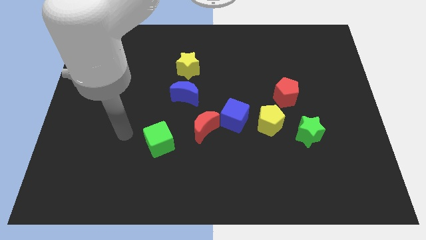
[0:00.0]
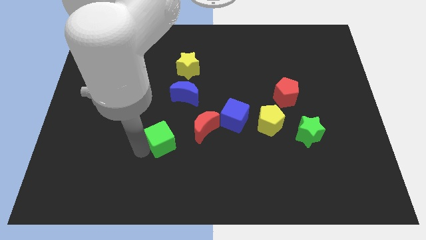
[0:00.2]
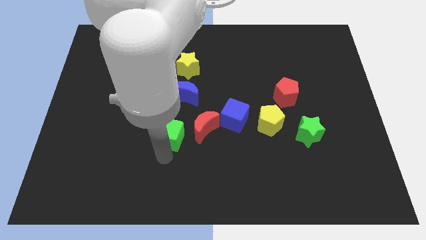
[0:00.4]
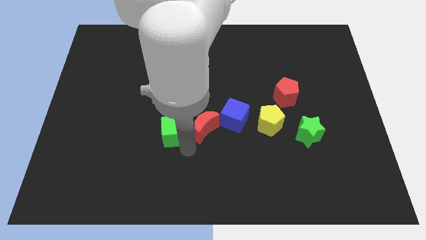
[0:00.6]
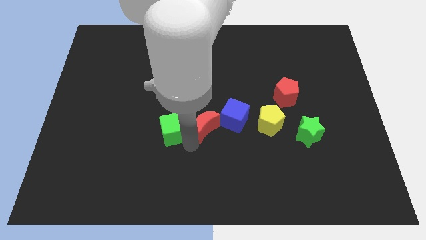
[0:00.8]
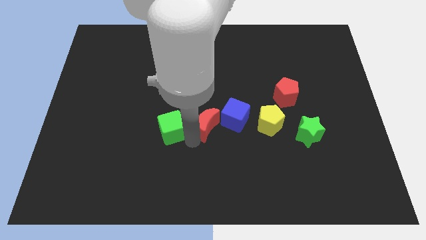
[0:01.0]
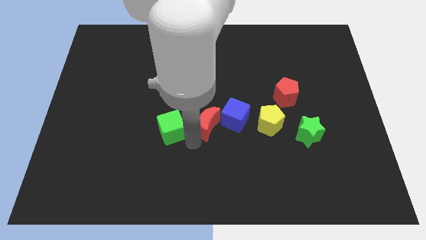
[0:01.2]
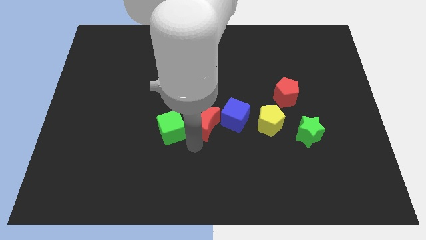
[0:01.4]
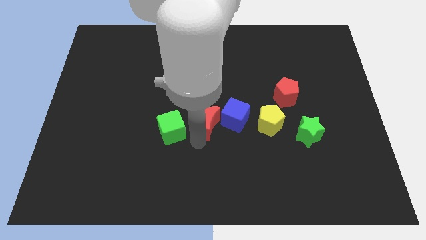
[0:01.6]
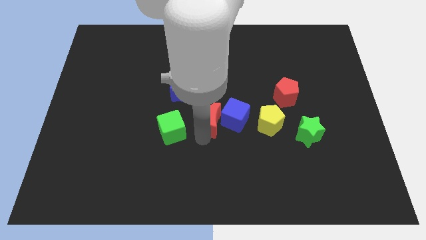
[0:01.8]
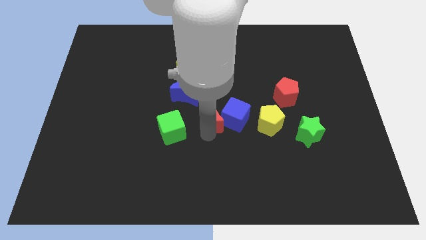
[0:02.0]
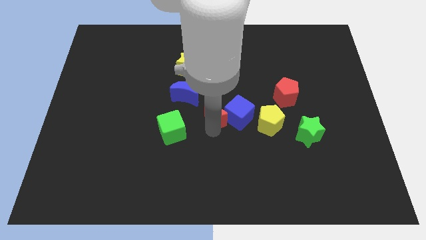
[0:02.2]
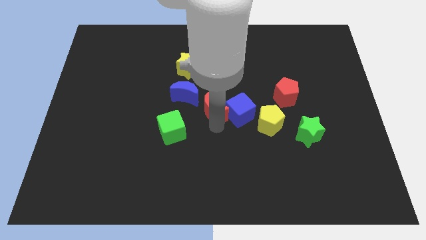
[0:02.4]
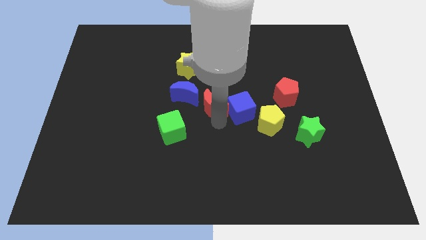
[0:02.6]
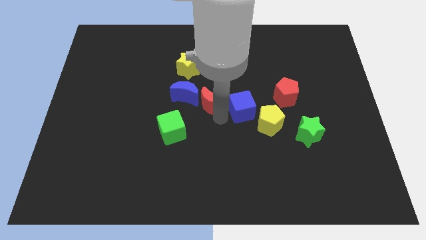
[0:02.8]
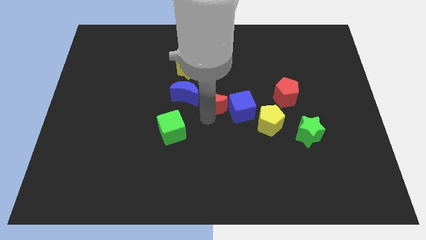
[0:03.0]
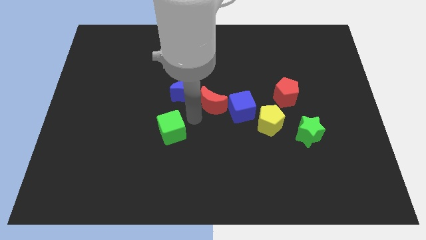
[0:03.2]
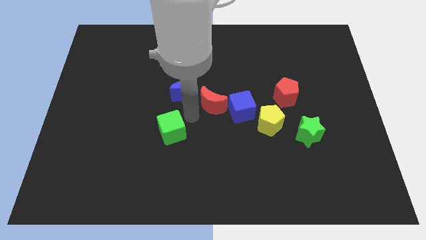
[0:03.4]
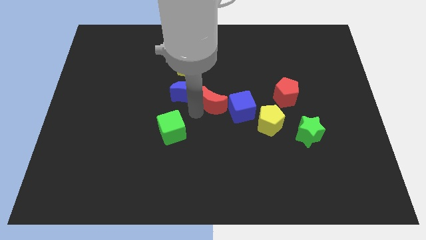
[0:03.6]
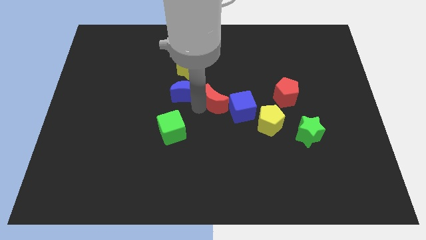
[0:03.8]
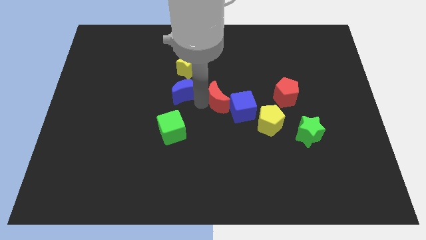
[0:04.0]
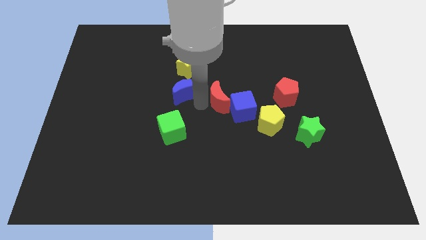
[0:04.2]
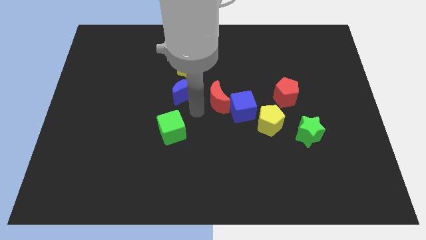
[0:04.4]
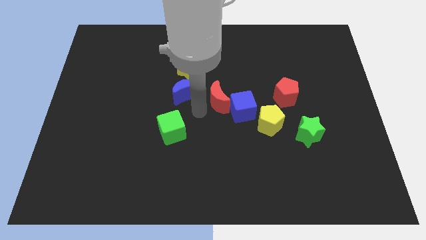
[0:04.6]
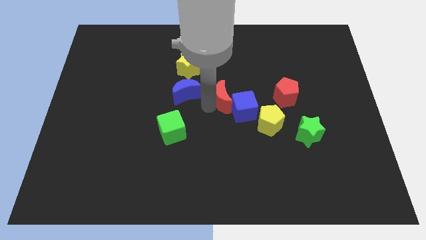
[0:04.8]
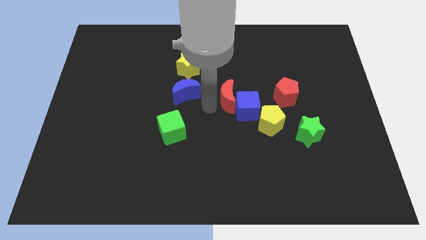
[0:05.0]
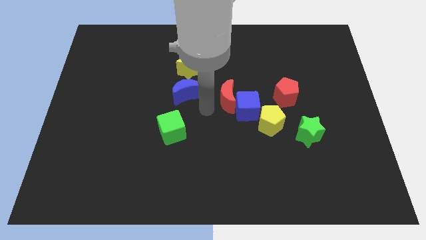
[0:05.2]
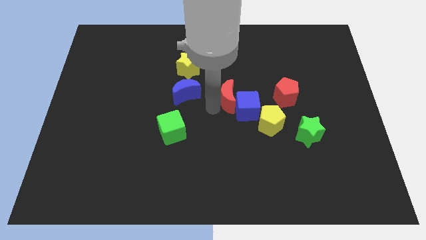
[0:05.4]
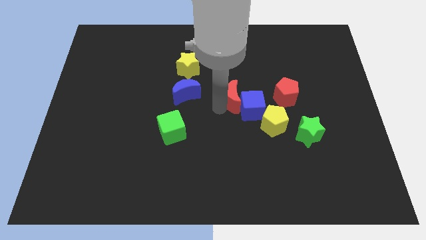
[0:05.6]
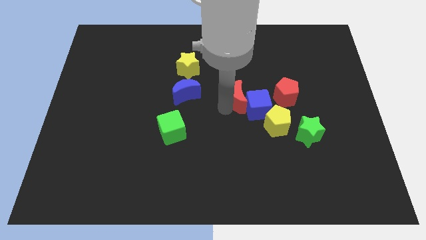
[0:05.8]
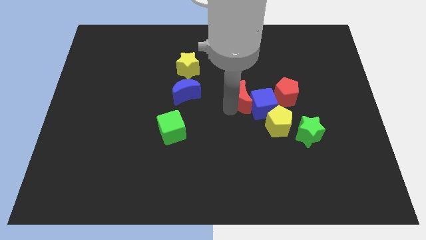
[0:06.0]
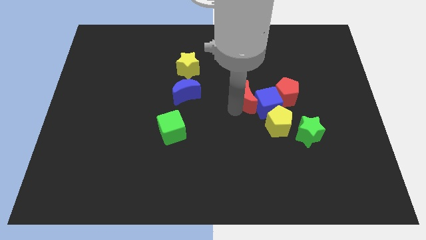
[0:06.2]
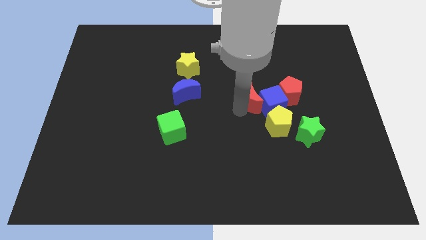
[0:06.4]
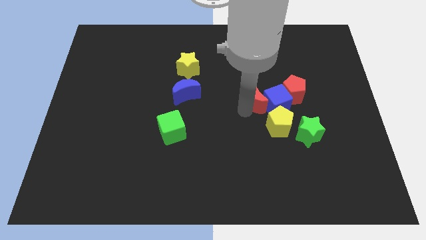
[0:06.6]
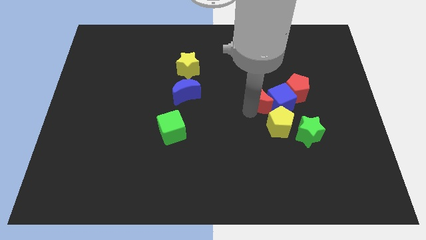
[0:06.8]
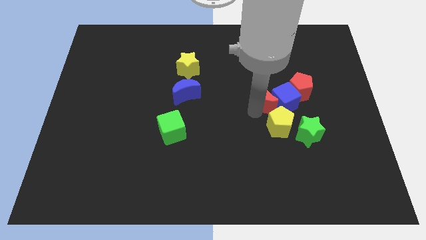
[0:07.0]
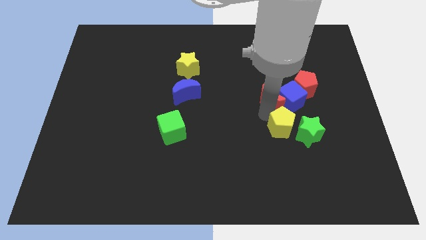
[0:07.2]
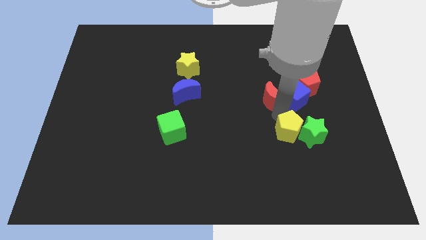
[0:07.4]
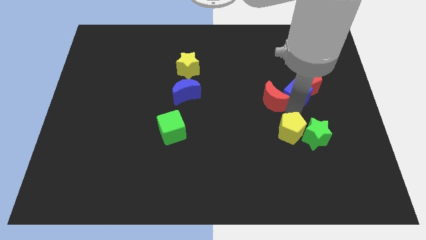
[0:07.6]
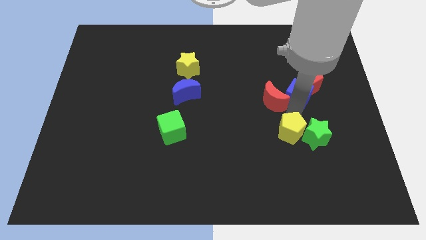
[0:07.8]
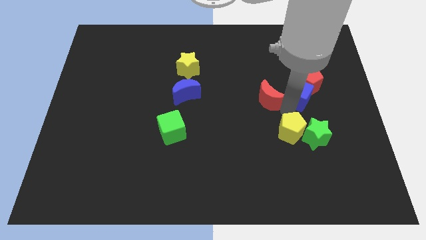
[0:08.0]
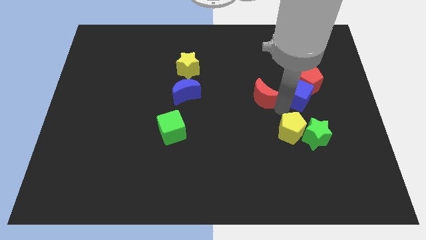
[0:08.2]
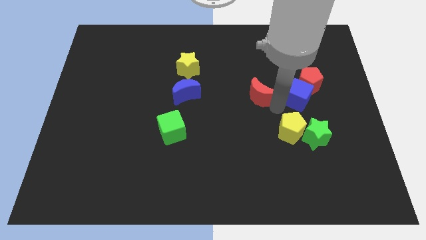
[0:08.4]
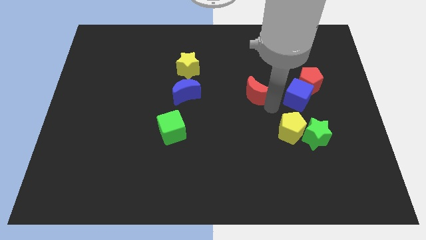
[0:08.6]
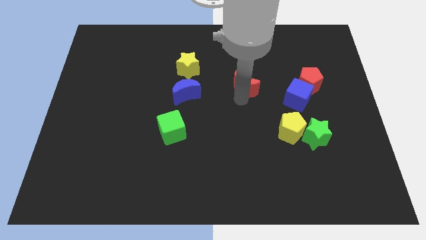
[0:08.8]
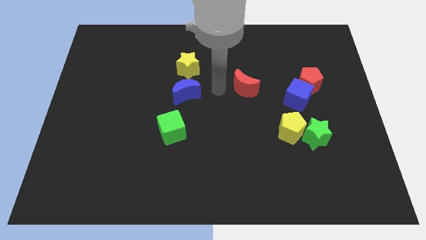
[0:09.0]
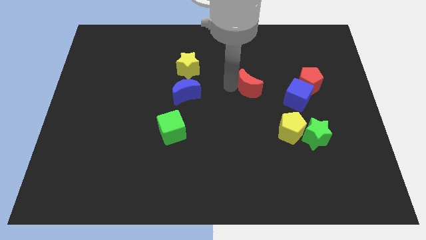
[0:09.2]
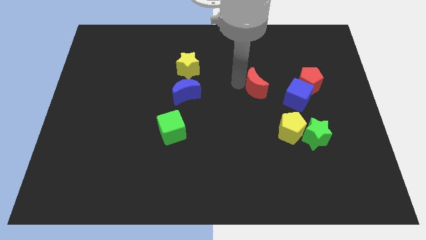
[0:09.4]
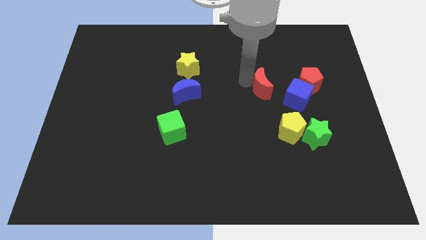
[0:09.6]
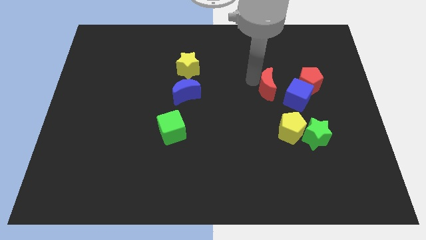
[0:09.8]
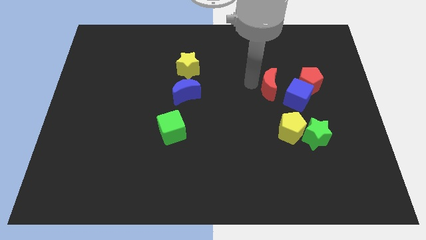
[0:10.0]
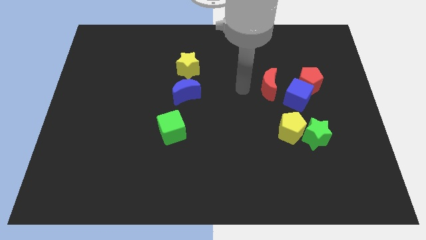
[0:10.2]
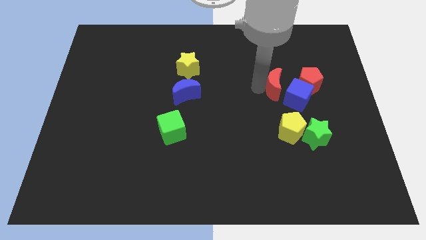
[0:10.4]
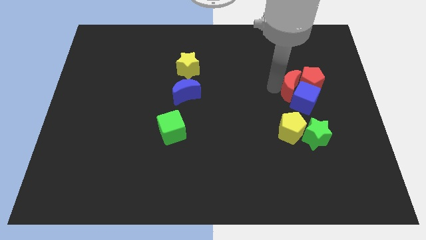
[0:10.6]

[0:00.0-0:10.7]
move the red moon to the red pentagon

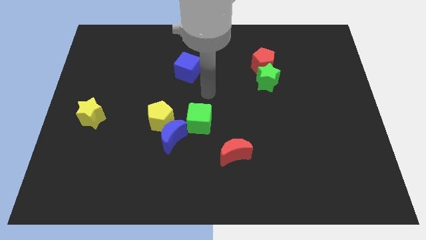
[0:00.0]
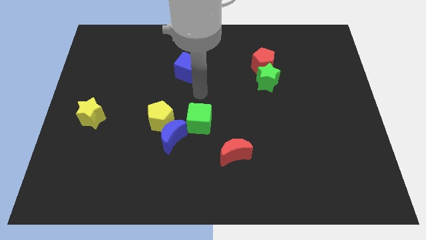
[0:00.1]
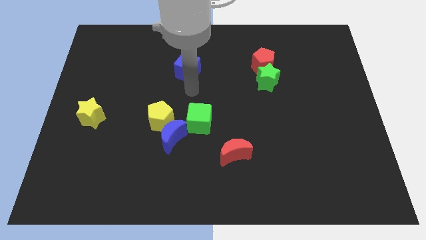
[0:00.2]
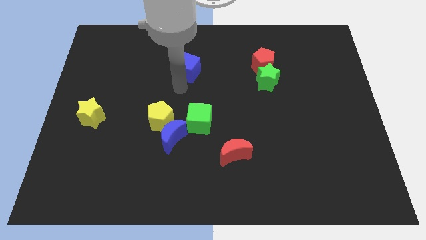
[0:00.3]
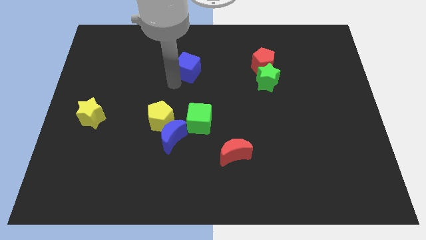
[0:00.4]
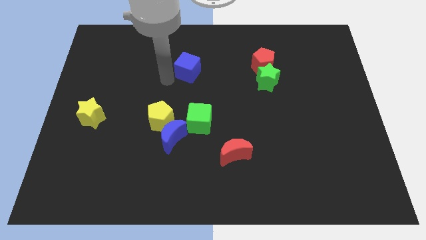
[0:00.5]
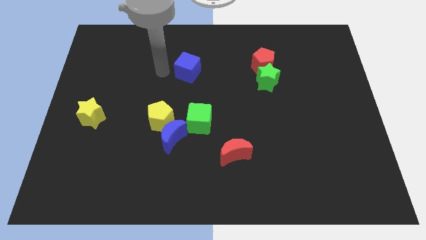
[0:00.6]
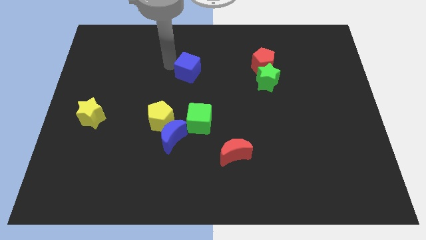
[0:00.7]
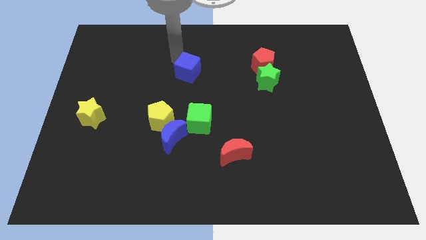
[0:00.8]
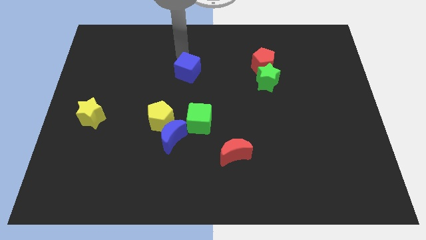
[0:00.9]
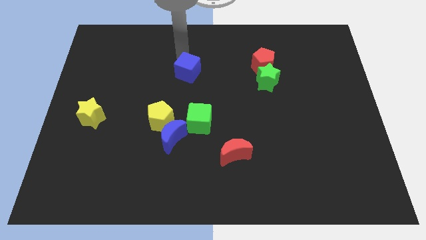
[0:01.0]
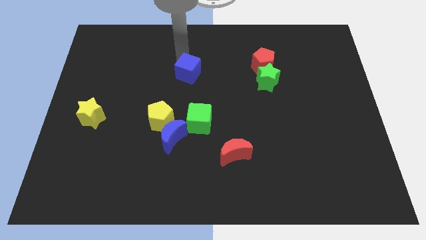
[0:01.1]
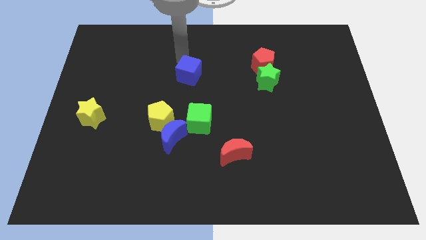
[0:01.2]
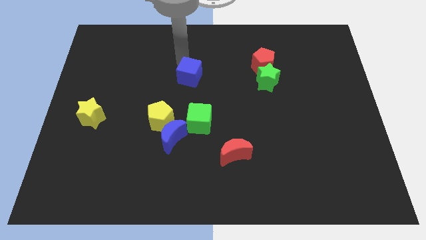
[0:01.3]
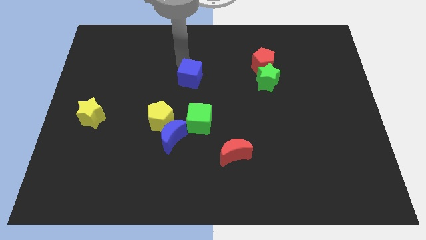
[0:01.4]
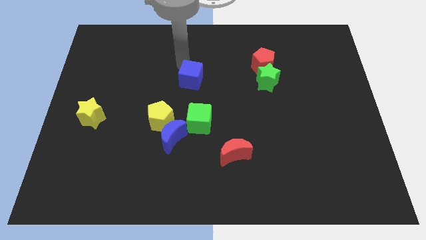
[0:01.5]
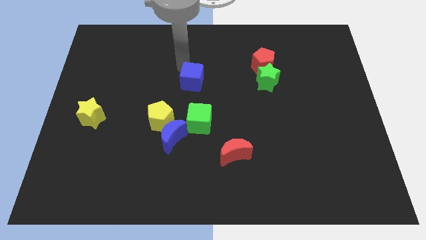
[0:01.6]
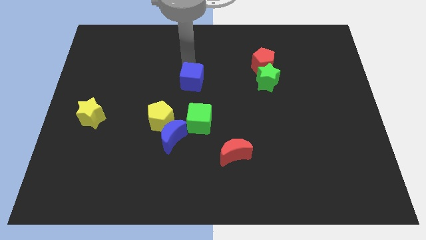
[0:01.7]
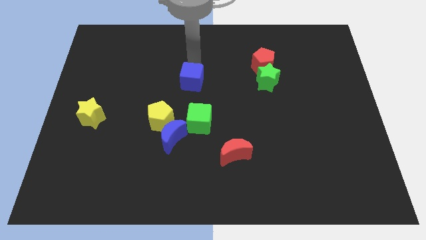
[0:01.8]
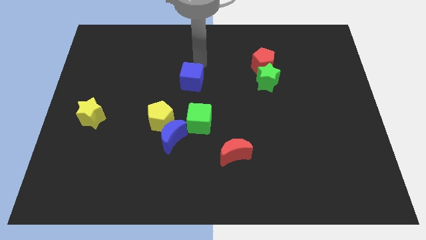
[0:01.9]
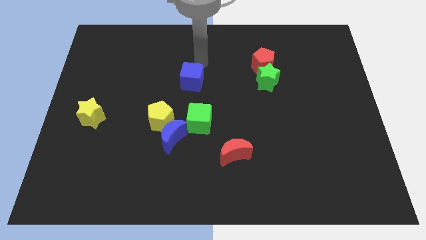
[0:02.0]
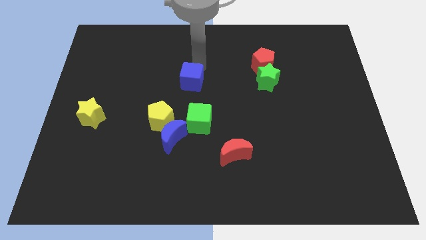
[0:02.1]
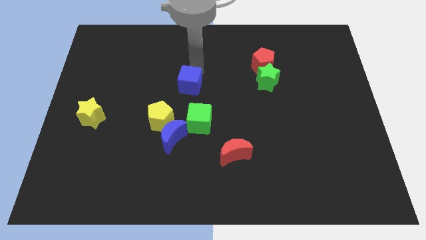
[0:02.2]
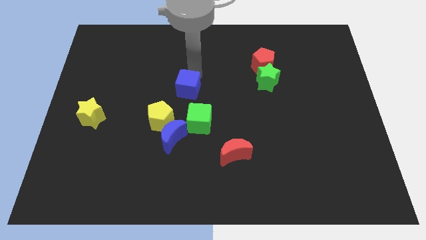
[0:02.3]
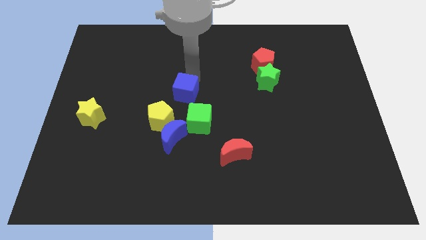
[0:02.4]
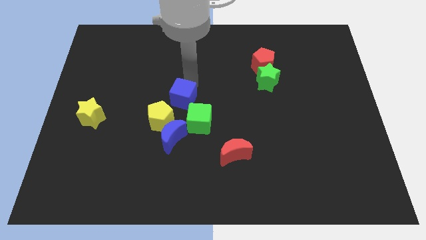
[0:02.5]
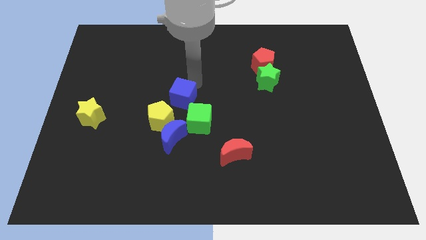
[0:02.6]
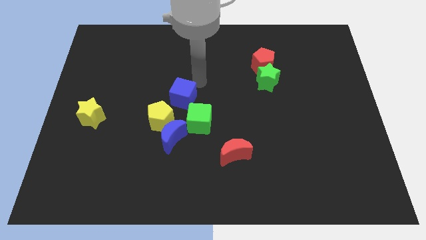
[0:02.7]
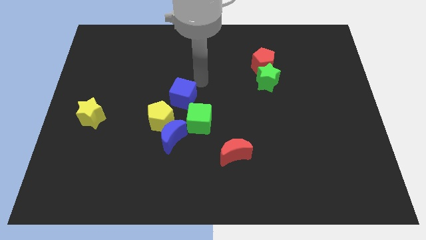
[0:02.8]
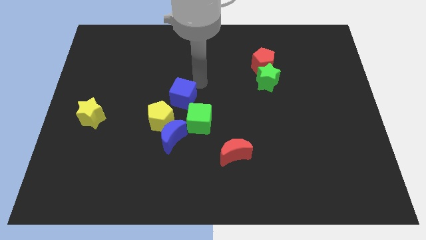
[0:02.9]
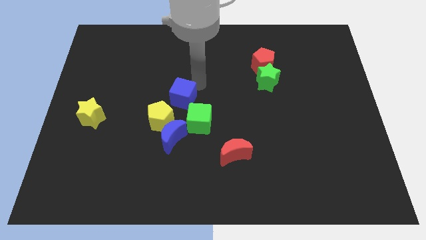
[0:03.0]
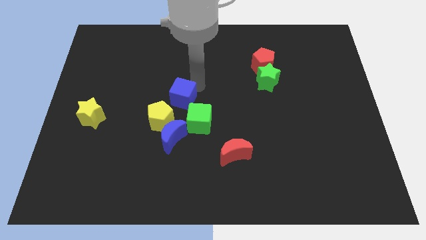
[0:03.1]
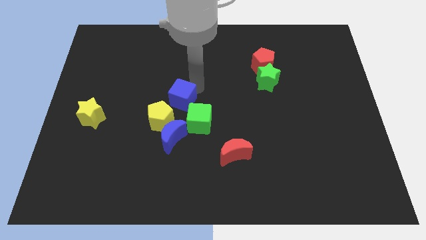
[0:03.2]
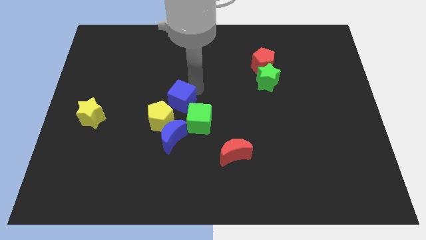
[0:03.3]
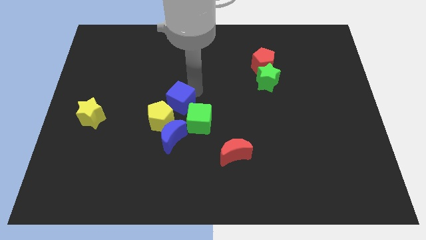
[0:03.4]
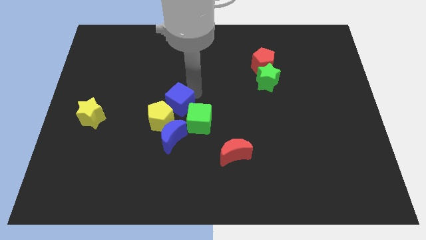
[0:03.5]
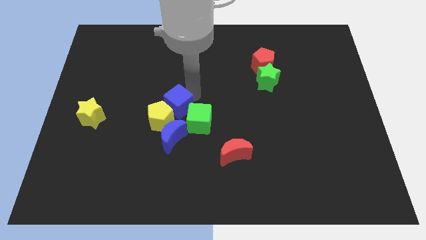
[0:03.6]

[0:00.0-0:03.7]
put the blue cube to the yellow pentagon
